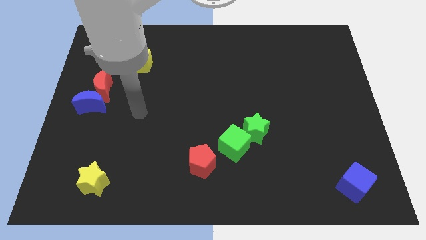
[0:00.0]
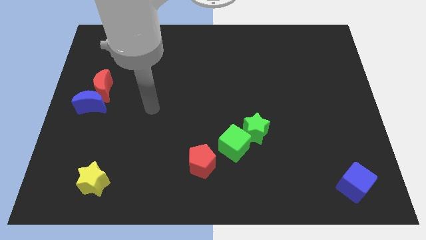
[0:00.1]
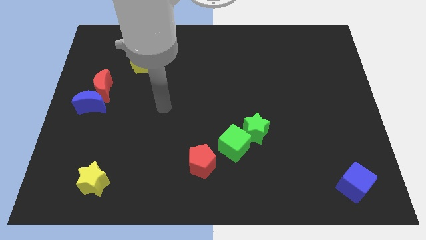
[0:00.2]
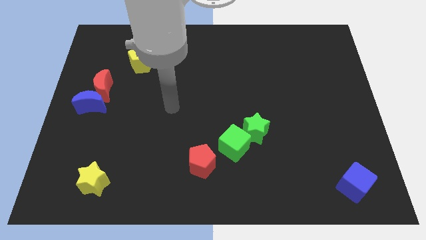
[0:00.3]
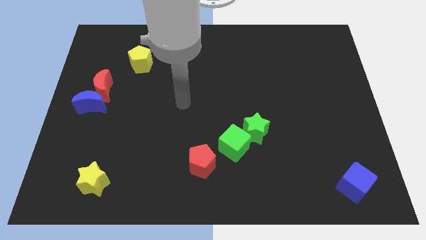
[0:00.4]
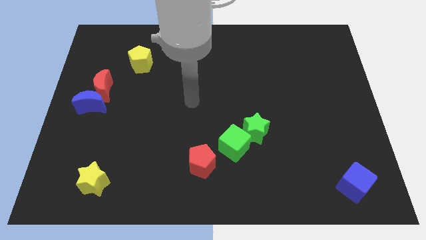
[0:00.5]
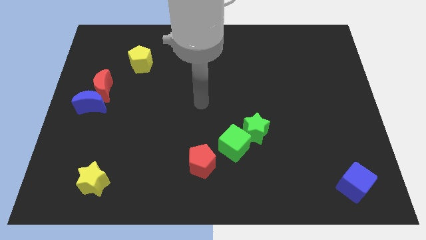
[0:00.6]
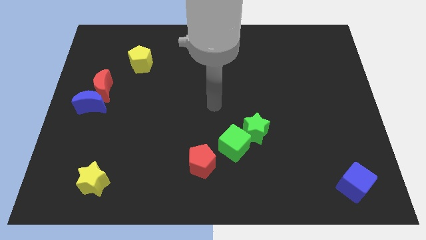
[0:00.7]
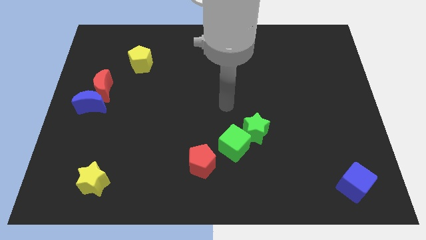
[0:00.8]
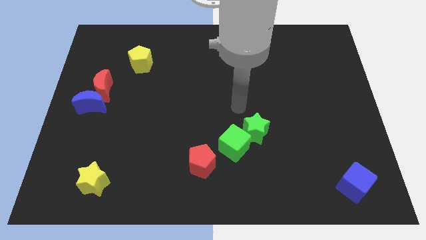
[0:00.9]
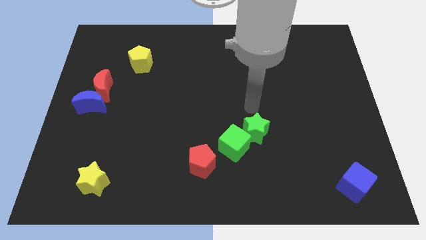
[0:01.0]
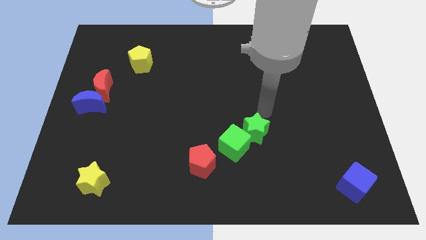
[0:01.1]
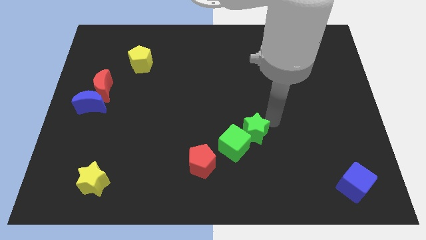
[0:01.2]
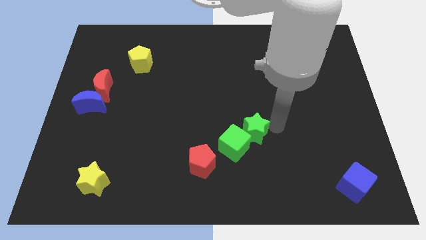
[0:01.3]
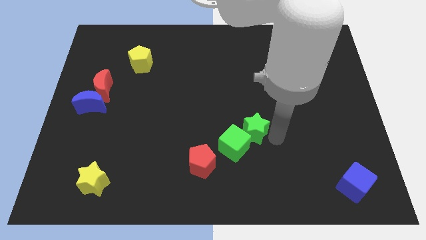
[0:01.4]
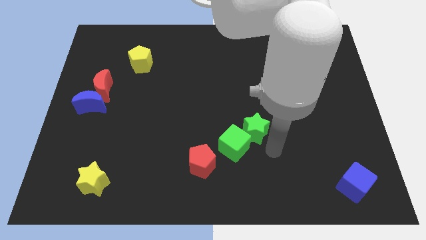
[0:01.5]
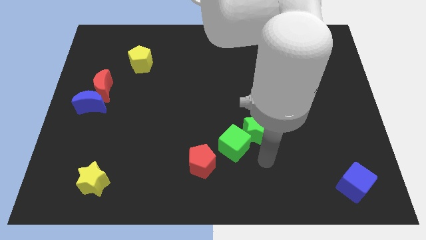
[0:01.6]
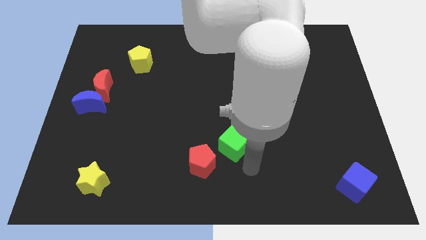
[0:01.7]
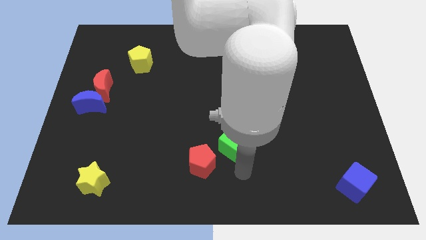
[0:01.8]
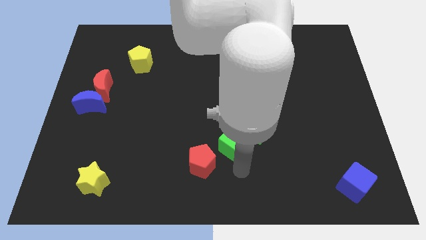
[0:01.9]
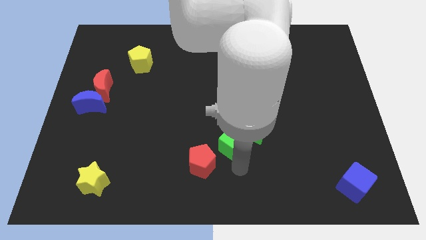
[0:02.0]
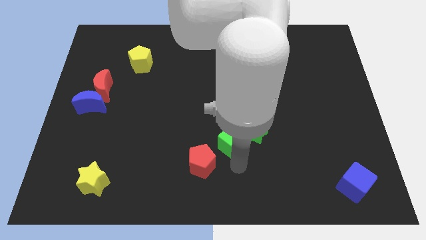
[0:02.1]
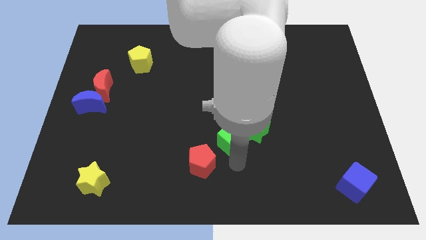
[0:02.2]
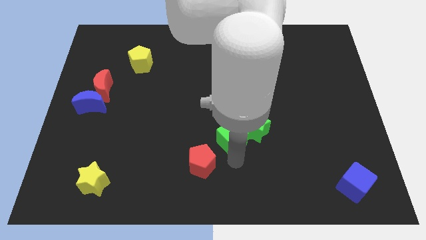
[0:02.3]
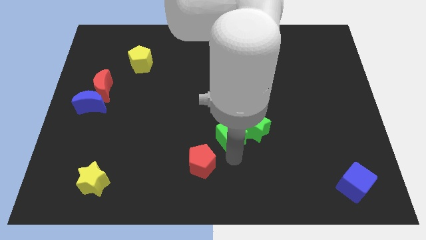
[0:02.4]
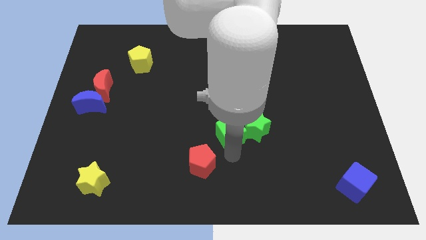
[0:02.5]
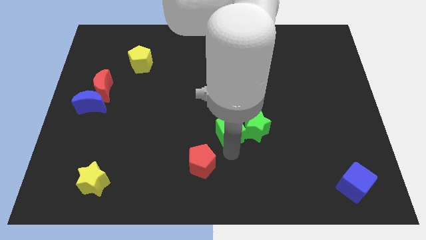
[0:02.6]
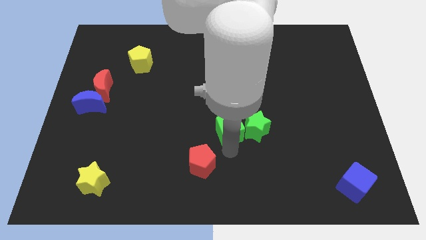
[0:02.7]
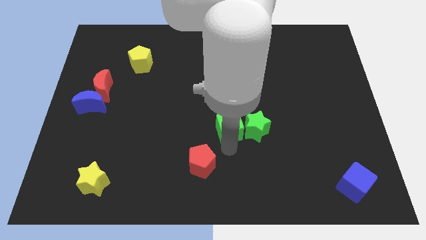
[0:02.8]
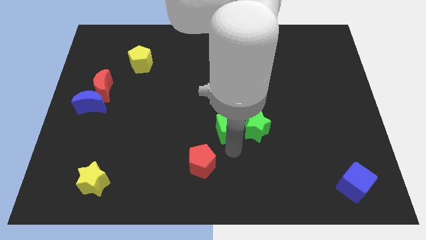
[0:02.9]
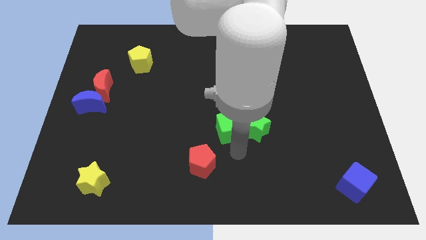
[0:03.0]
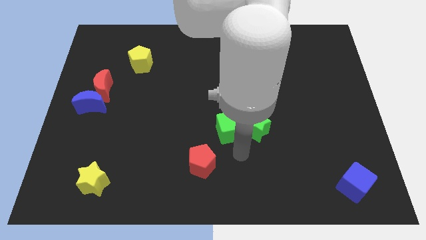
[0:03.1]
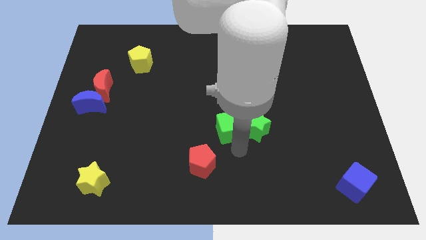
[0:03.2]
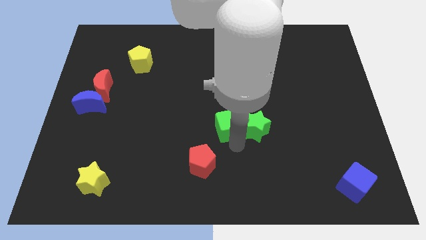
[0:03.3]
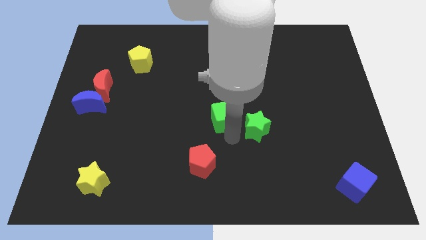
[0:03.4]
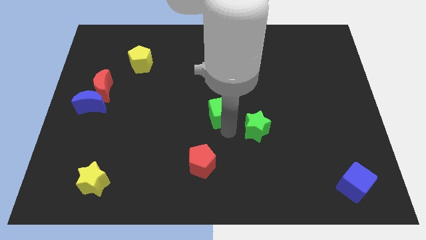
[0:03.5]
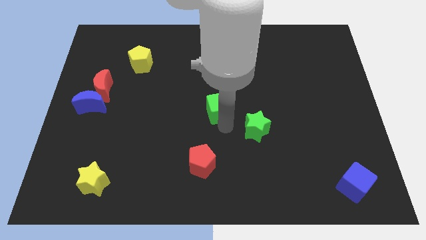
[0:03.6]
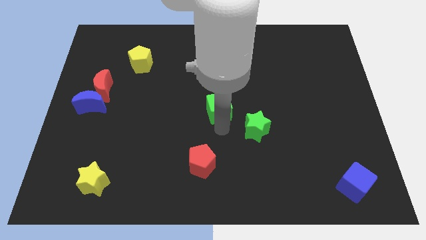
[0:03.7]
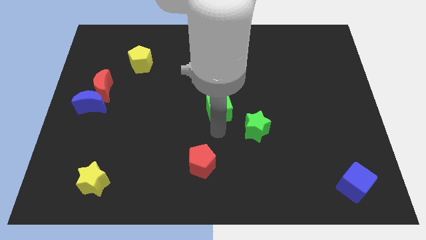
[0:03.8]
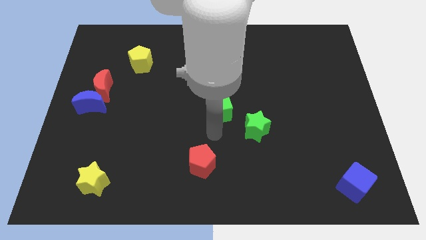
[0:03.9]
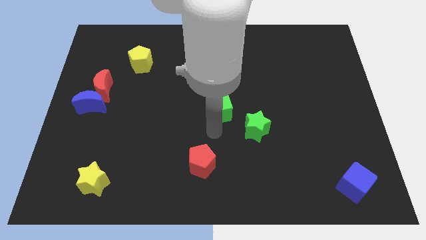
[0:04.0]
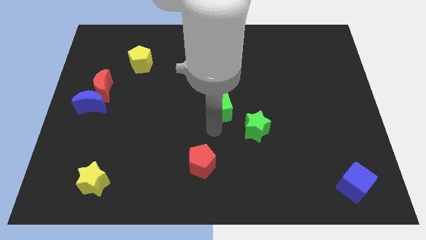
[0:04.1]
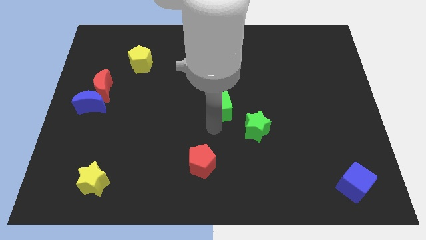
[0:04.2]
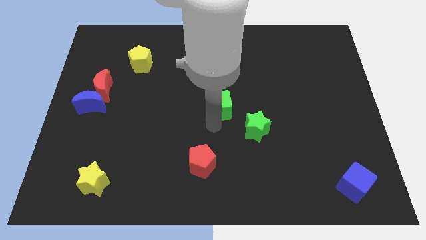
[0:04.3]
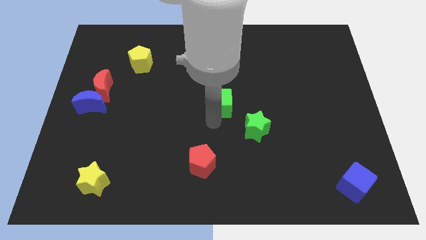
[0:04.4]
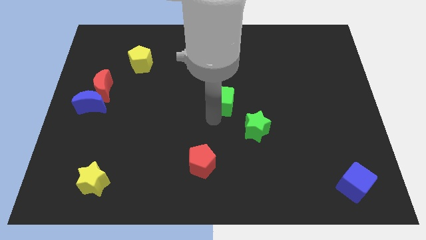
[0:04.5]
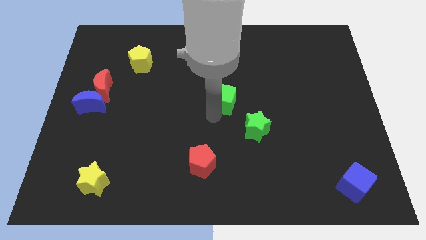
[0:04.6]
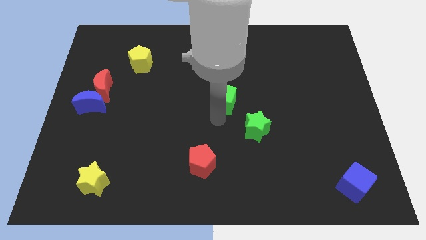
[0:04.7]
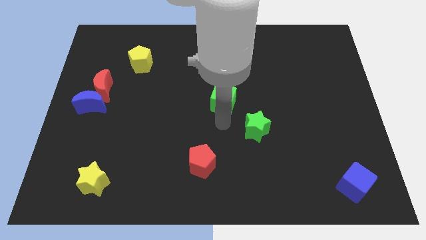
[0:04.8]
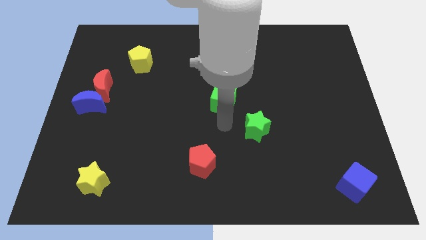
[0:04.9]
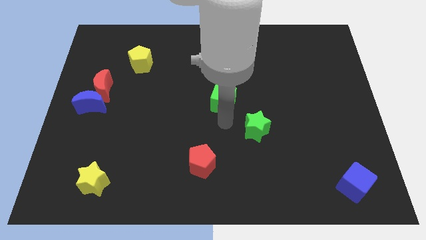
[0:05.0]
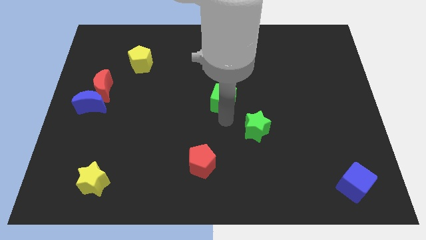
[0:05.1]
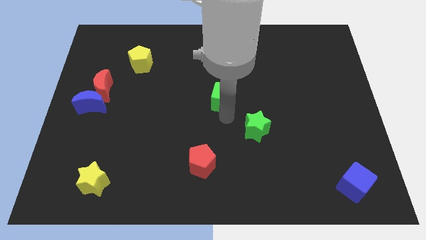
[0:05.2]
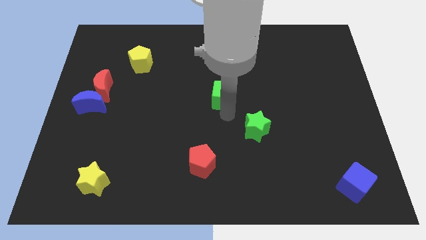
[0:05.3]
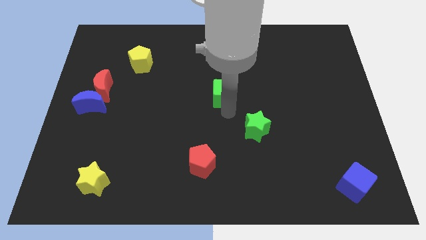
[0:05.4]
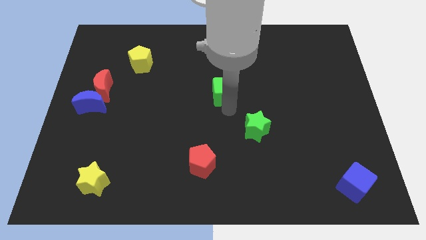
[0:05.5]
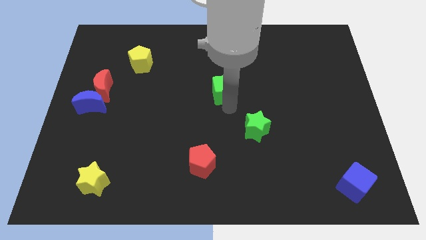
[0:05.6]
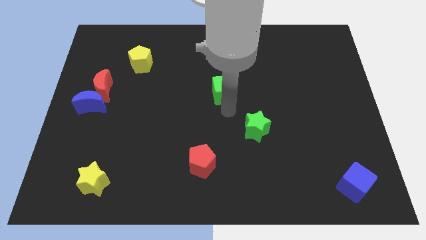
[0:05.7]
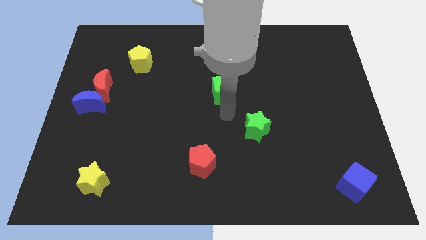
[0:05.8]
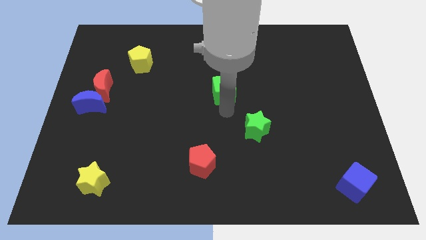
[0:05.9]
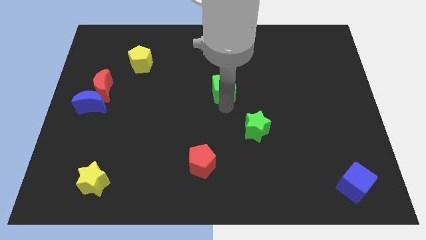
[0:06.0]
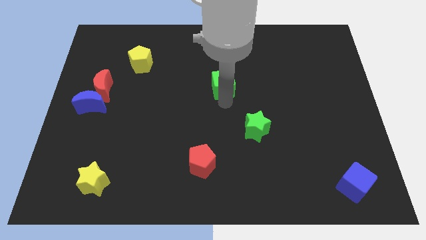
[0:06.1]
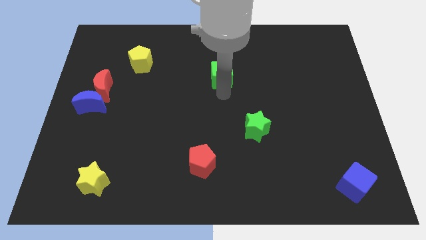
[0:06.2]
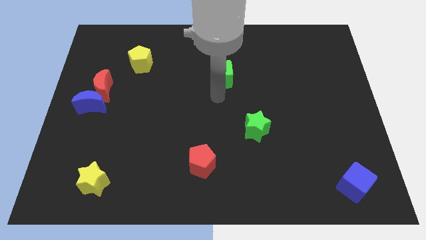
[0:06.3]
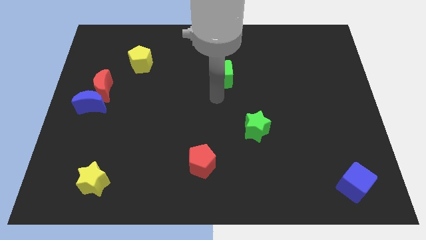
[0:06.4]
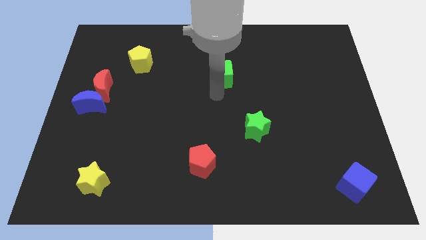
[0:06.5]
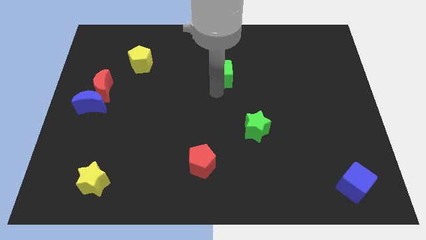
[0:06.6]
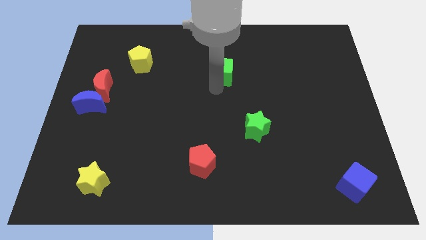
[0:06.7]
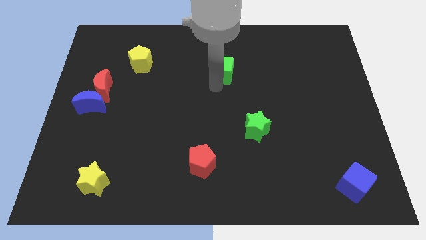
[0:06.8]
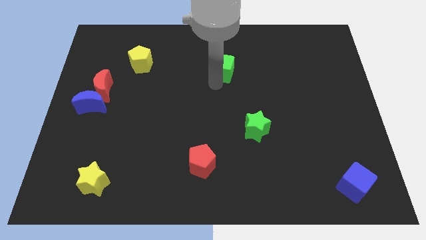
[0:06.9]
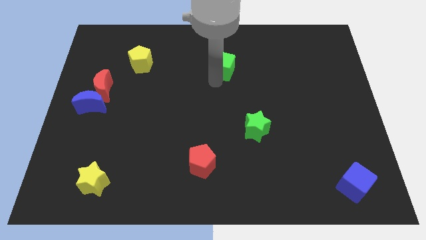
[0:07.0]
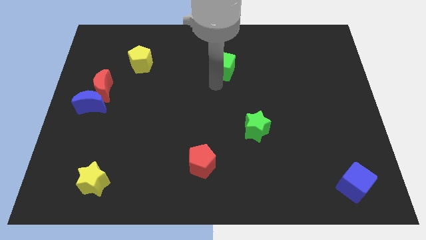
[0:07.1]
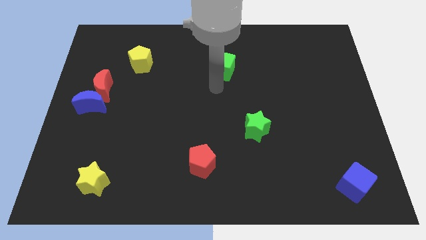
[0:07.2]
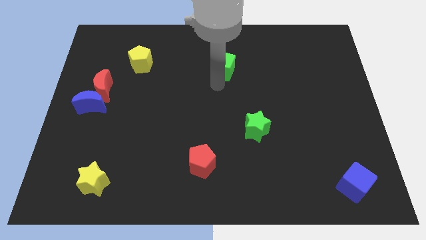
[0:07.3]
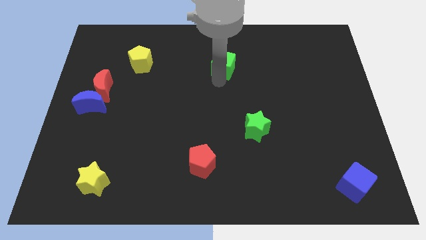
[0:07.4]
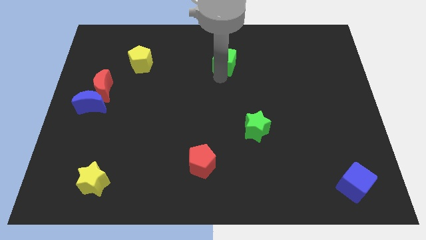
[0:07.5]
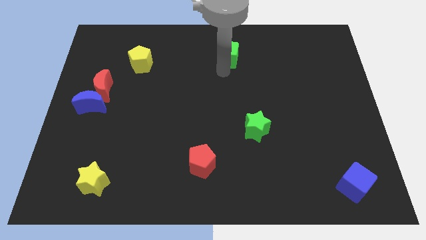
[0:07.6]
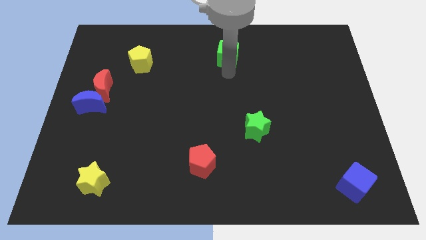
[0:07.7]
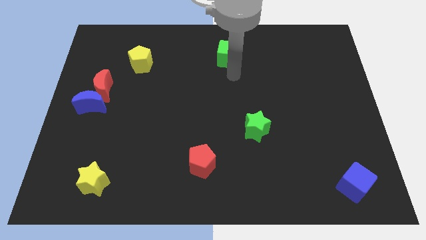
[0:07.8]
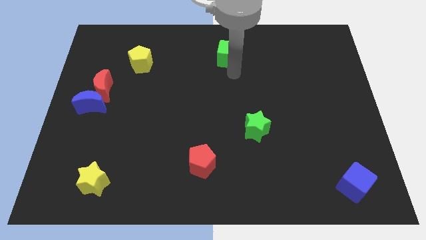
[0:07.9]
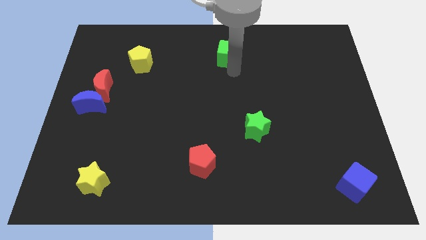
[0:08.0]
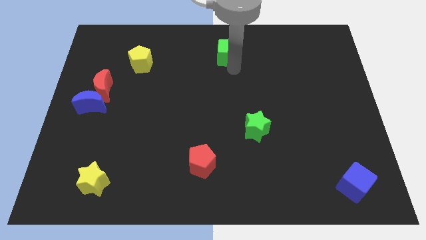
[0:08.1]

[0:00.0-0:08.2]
put the green cube to the top
